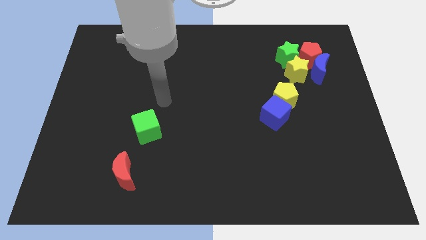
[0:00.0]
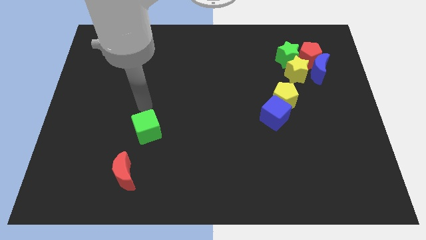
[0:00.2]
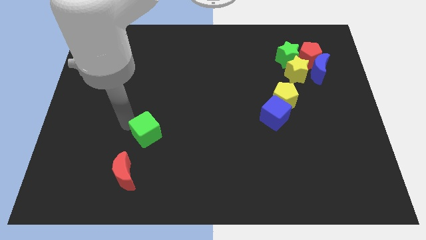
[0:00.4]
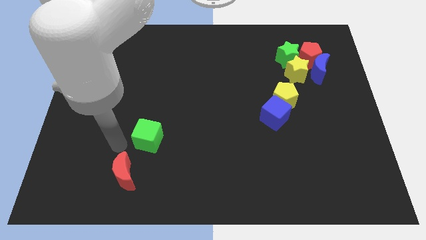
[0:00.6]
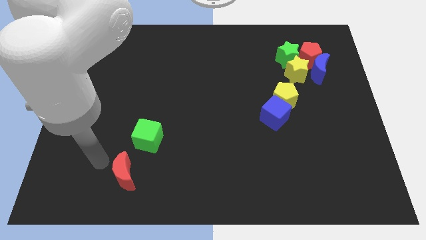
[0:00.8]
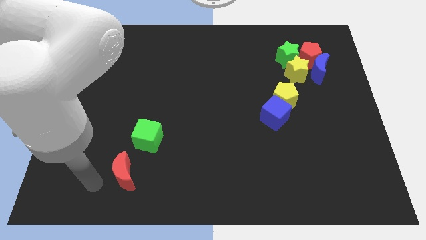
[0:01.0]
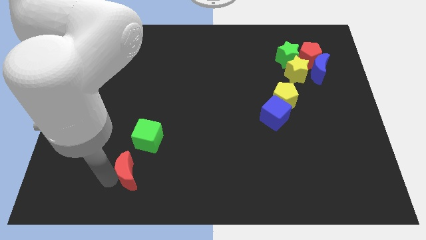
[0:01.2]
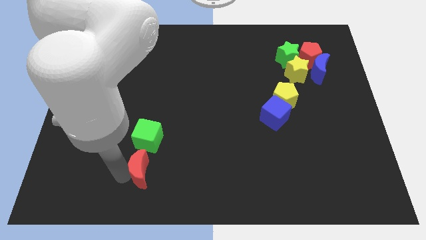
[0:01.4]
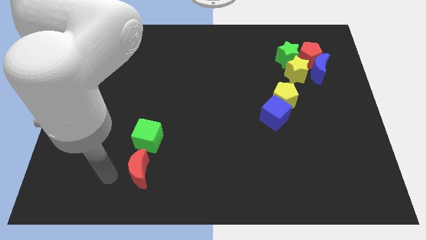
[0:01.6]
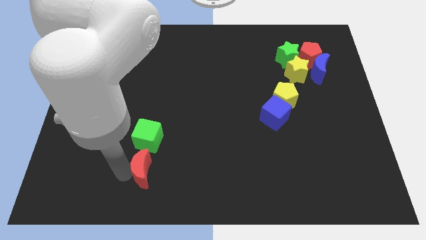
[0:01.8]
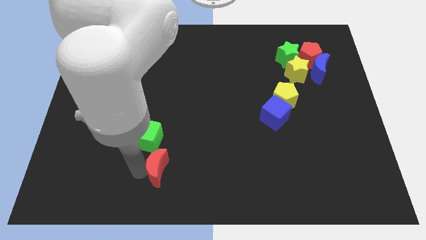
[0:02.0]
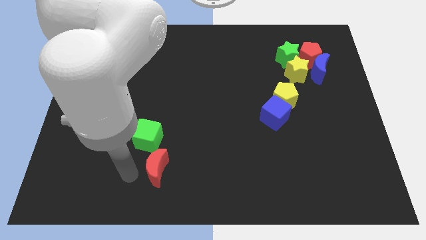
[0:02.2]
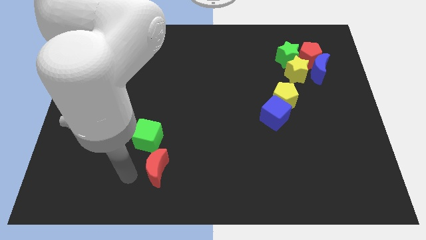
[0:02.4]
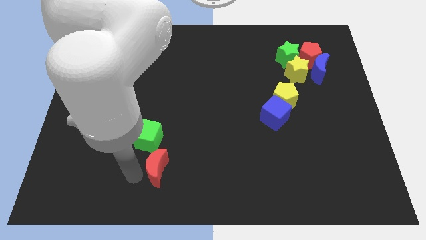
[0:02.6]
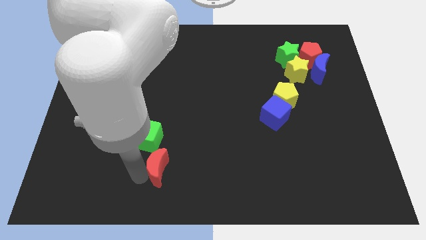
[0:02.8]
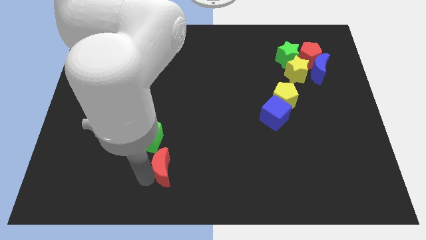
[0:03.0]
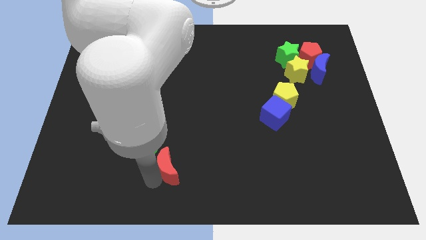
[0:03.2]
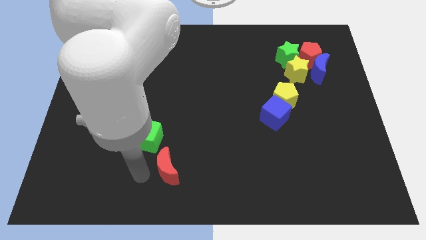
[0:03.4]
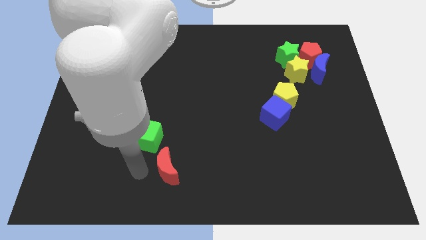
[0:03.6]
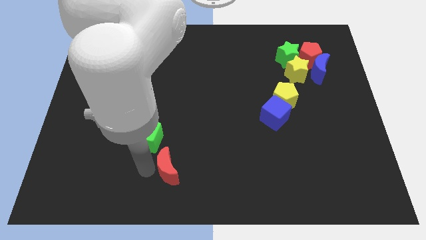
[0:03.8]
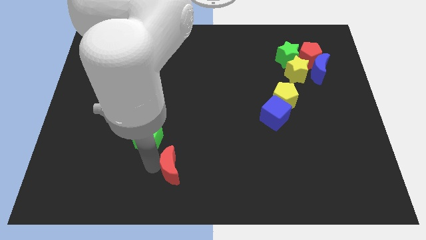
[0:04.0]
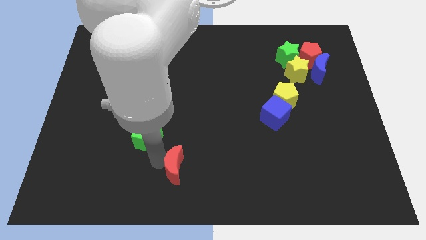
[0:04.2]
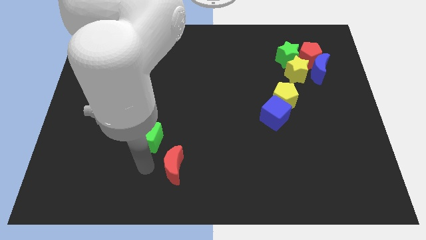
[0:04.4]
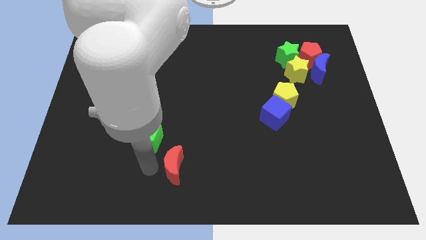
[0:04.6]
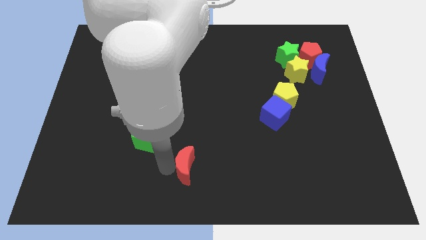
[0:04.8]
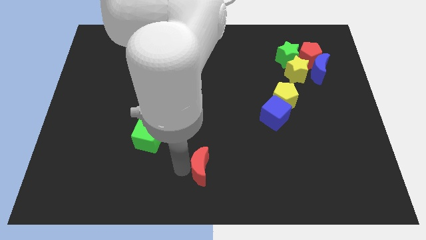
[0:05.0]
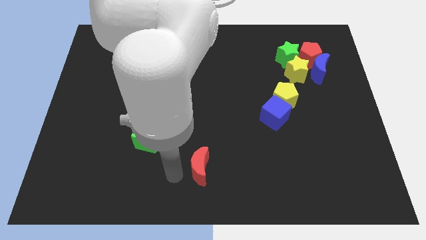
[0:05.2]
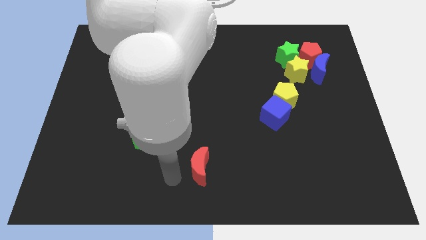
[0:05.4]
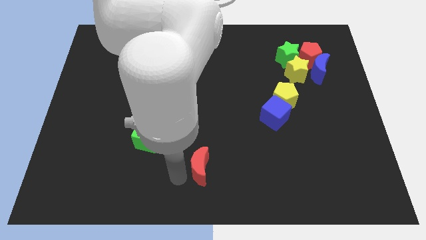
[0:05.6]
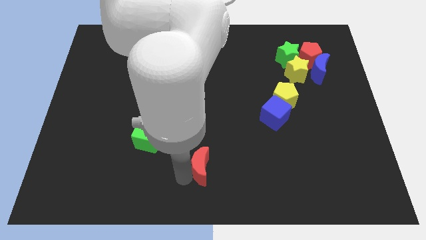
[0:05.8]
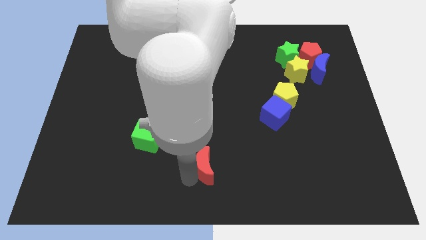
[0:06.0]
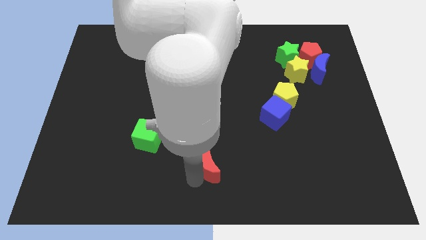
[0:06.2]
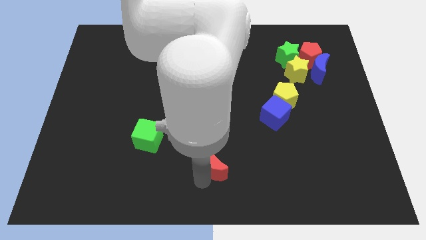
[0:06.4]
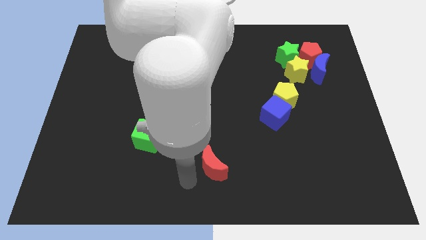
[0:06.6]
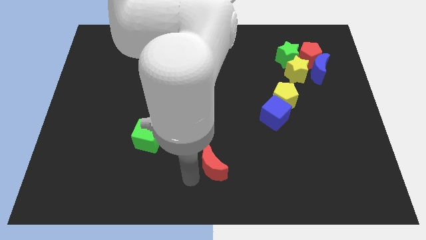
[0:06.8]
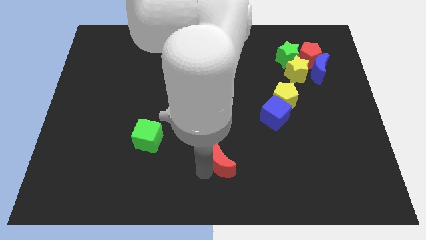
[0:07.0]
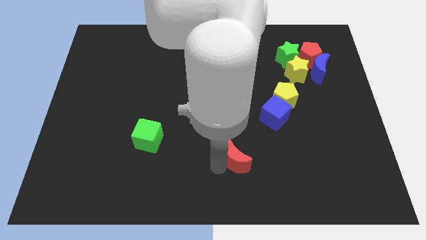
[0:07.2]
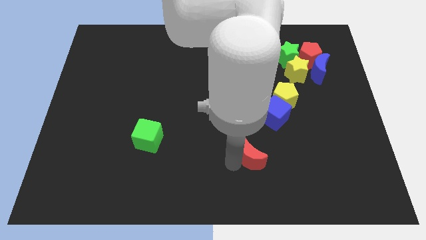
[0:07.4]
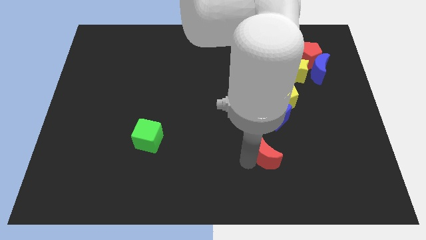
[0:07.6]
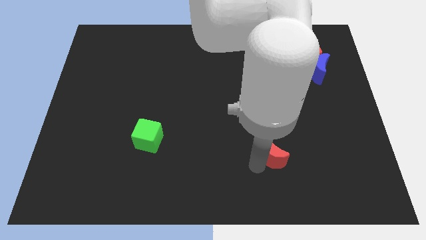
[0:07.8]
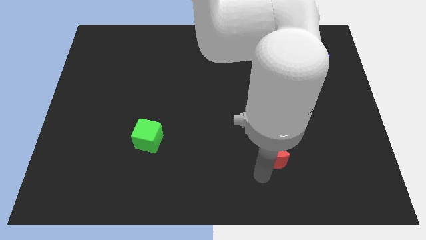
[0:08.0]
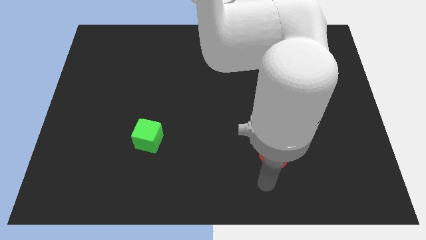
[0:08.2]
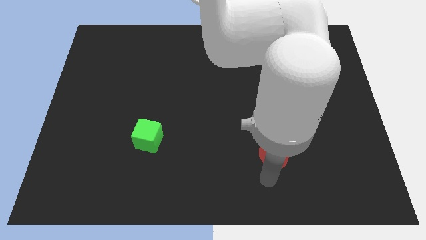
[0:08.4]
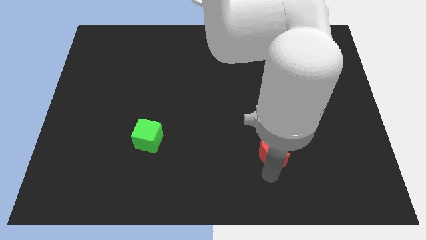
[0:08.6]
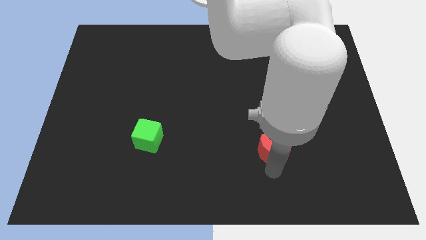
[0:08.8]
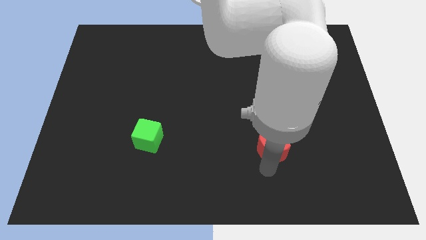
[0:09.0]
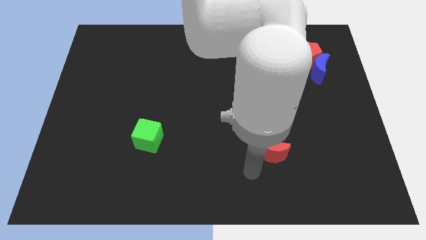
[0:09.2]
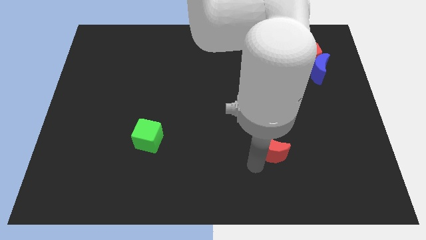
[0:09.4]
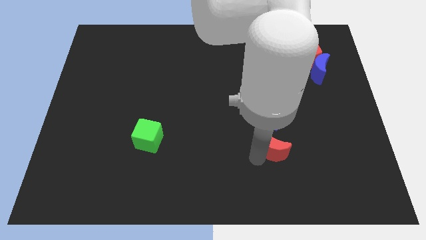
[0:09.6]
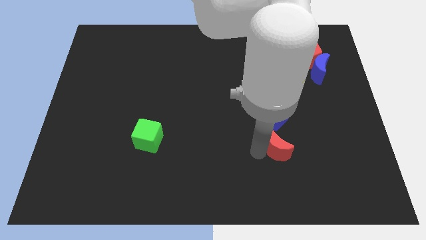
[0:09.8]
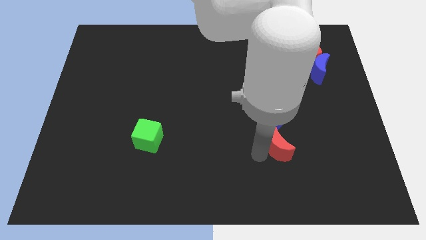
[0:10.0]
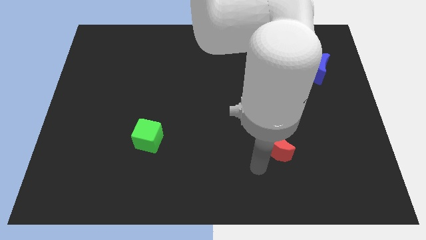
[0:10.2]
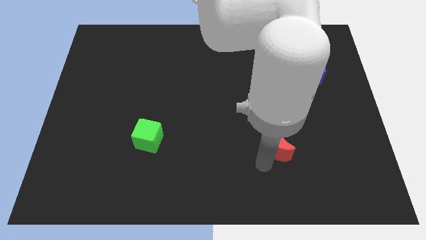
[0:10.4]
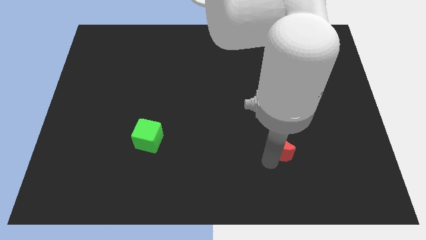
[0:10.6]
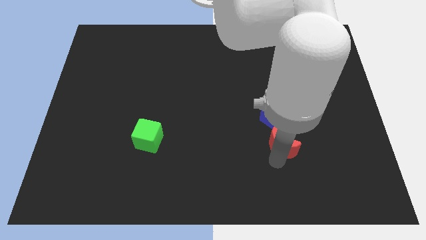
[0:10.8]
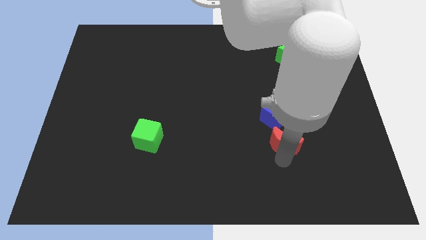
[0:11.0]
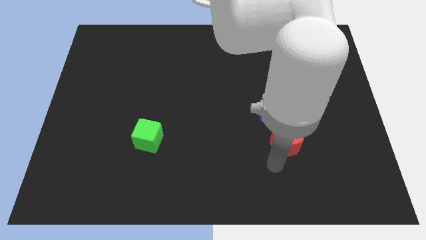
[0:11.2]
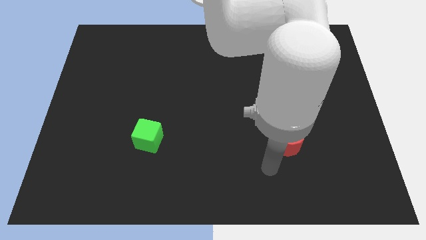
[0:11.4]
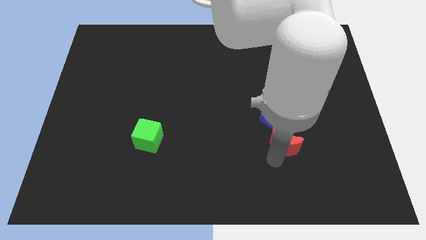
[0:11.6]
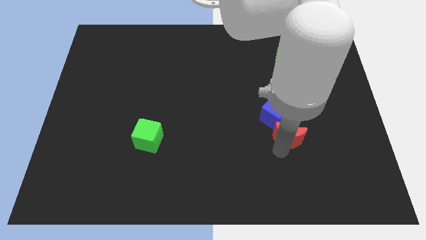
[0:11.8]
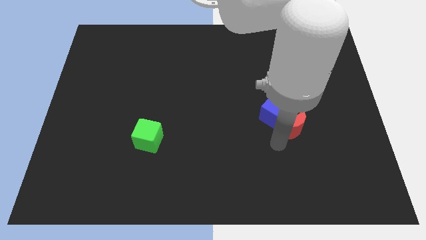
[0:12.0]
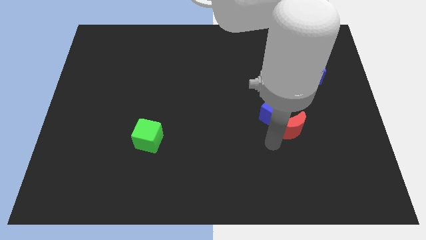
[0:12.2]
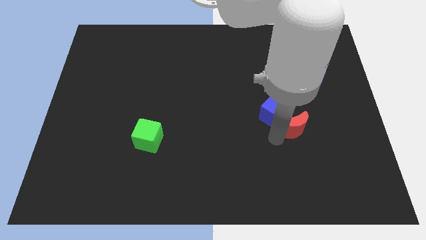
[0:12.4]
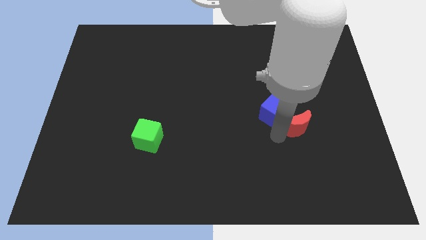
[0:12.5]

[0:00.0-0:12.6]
put the red moon to the bottom right of the yellow pentagon
